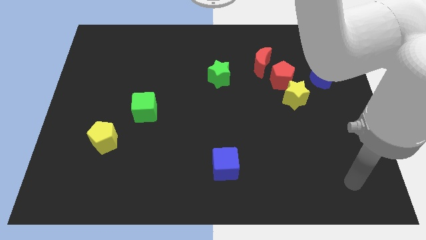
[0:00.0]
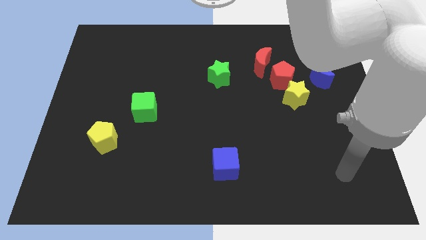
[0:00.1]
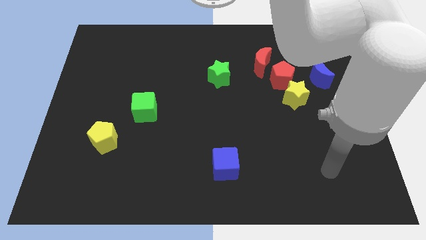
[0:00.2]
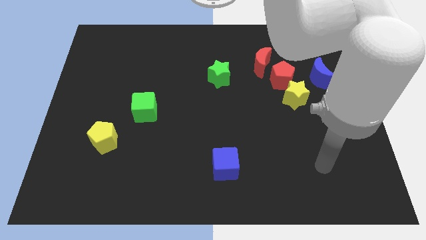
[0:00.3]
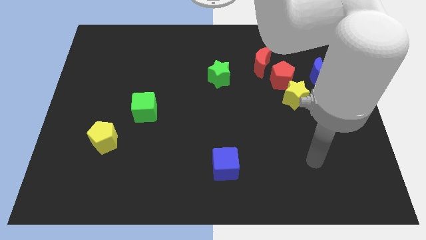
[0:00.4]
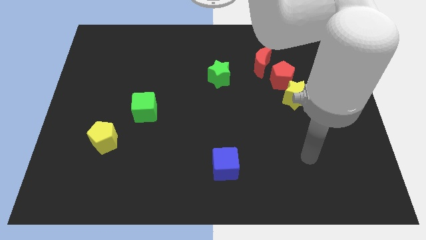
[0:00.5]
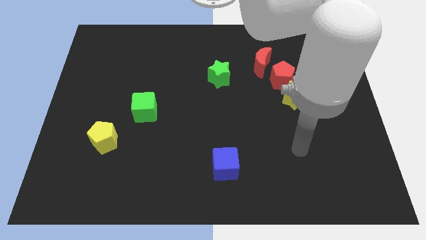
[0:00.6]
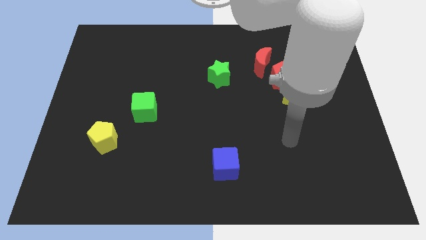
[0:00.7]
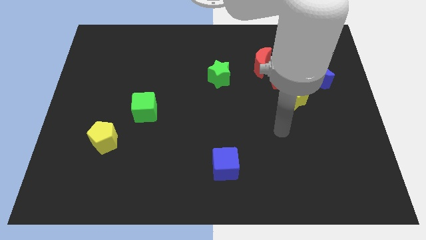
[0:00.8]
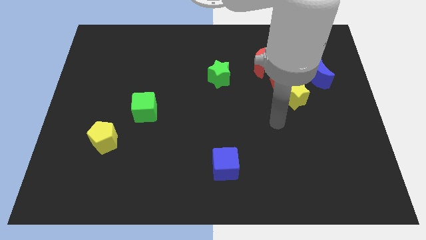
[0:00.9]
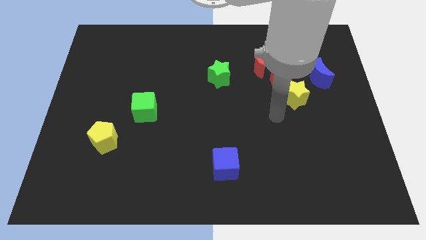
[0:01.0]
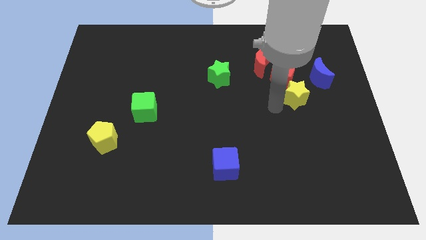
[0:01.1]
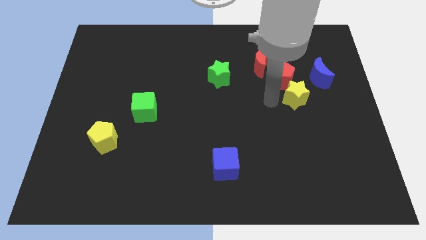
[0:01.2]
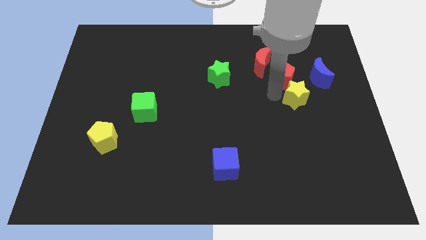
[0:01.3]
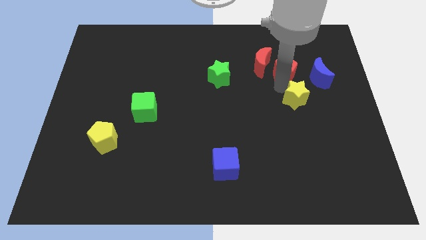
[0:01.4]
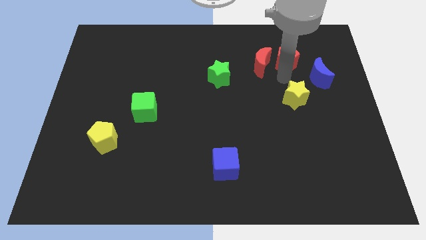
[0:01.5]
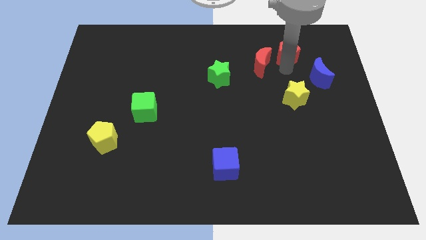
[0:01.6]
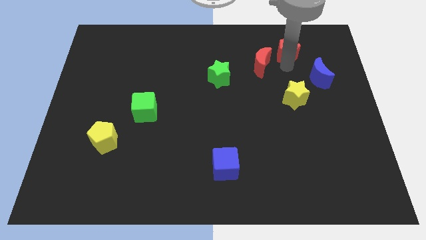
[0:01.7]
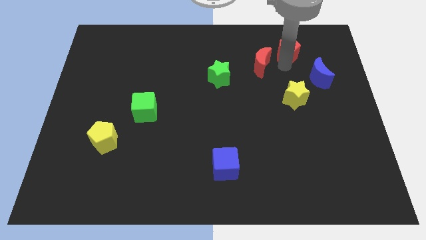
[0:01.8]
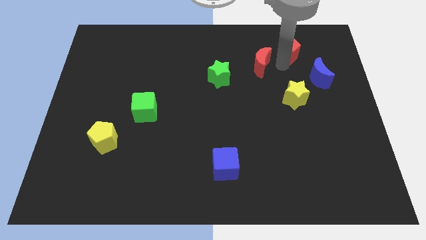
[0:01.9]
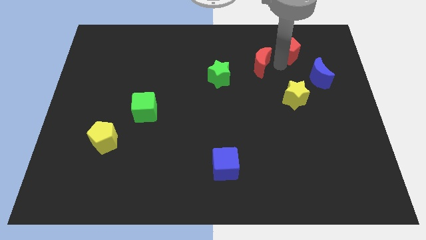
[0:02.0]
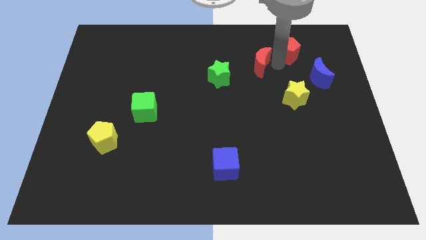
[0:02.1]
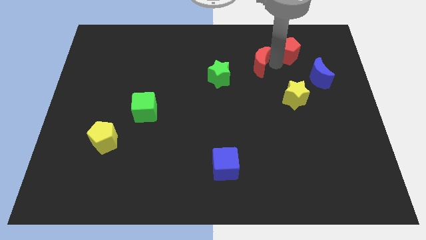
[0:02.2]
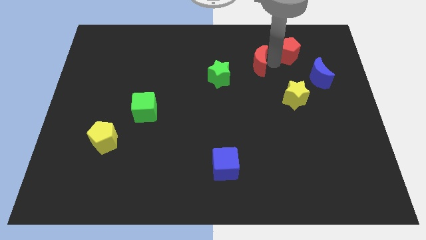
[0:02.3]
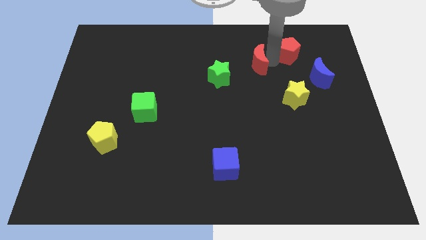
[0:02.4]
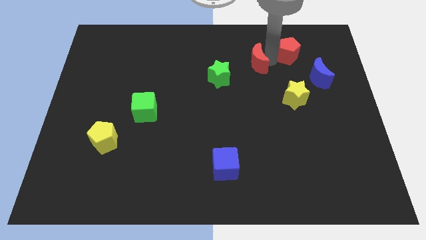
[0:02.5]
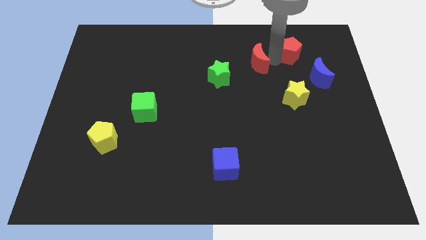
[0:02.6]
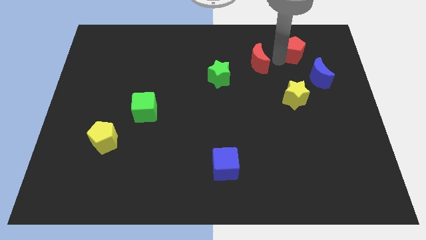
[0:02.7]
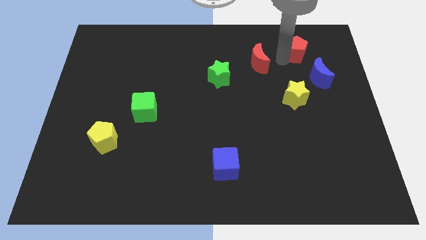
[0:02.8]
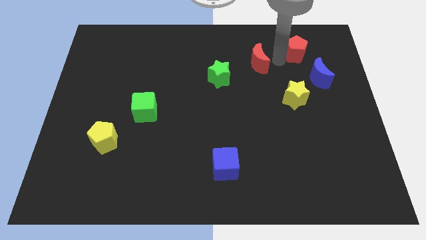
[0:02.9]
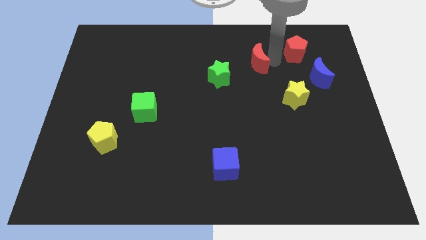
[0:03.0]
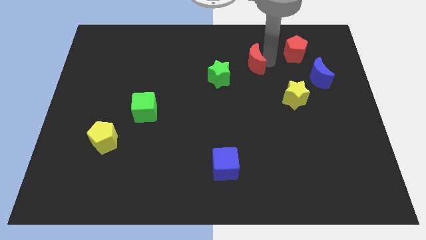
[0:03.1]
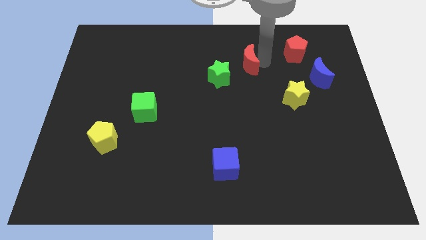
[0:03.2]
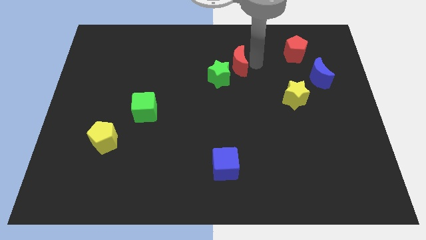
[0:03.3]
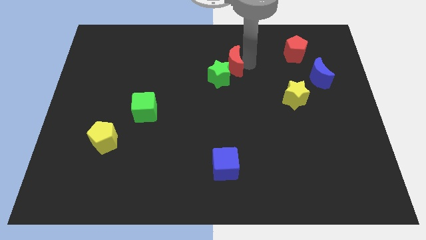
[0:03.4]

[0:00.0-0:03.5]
slightly move the red moon left

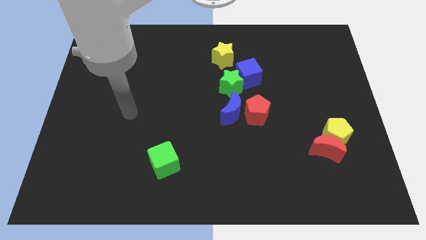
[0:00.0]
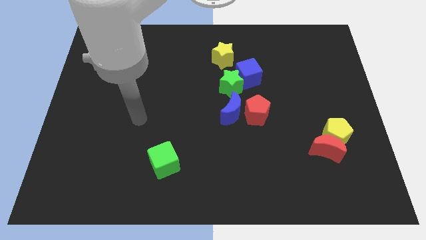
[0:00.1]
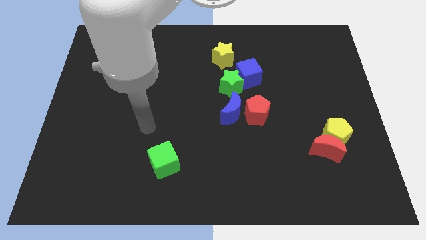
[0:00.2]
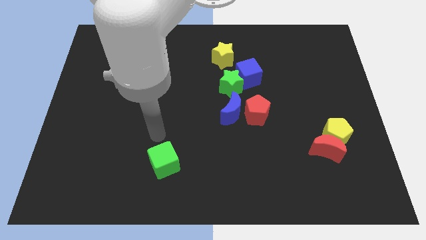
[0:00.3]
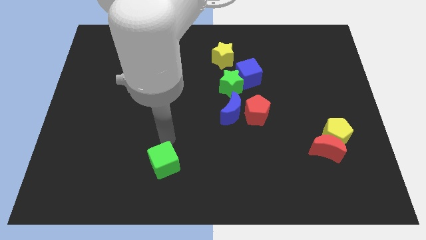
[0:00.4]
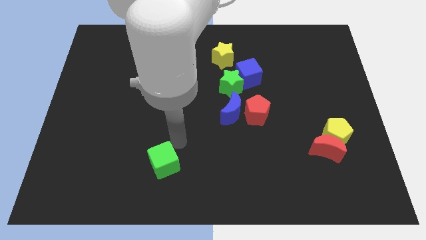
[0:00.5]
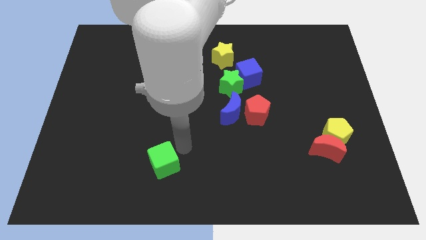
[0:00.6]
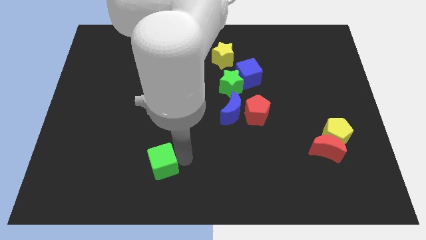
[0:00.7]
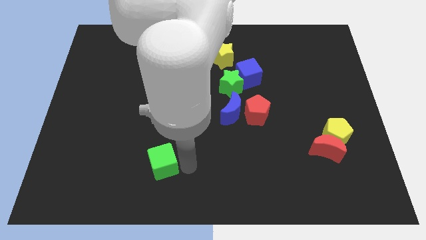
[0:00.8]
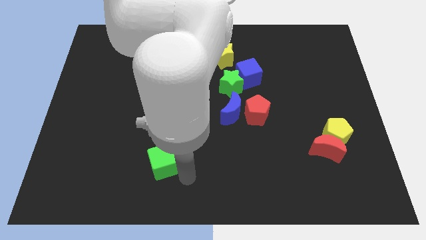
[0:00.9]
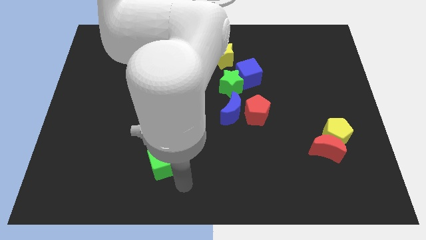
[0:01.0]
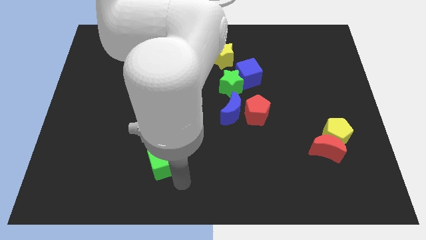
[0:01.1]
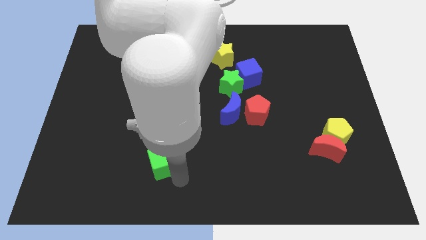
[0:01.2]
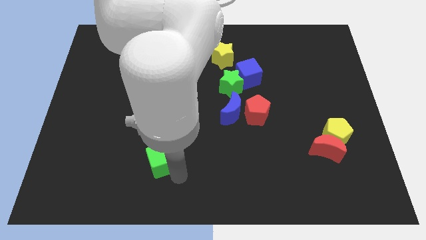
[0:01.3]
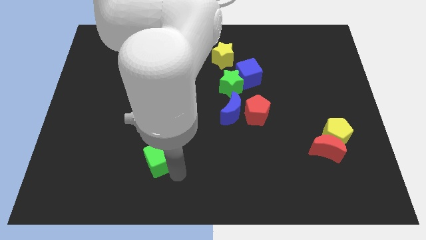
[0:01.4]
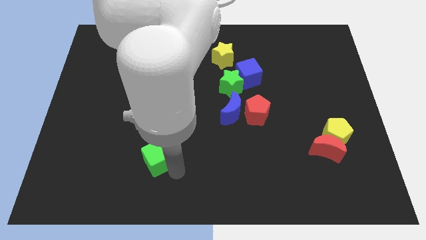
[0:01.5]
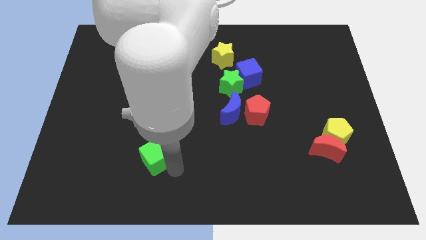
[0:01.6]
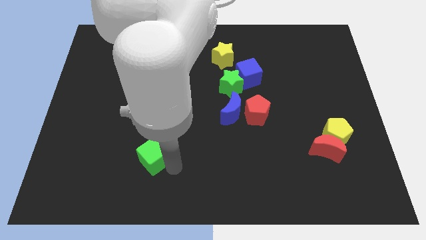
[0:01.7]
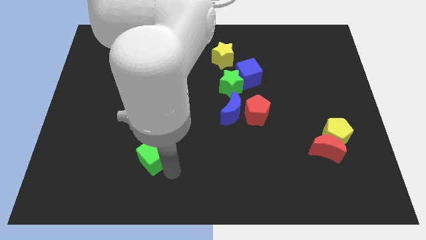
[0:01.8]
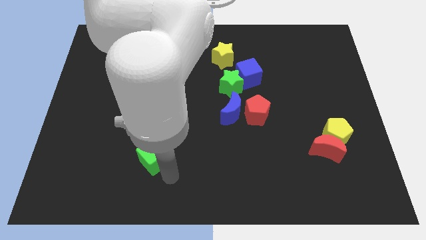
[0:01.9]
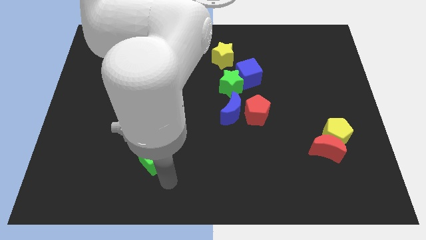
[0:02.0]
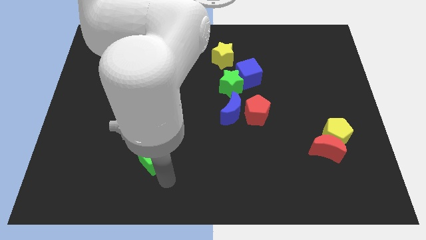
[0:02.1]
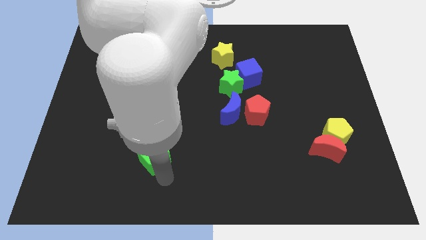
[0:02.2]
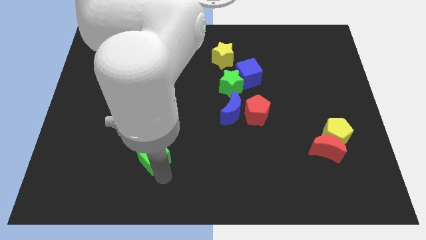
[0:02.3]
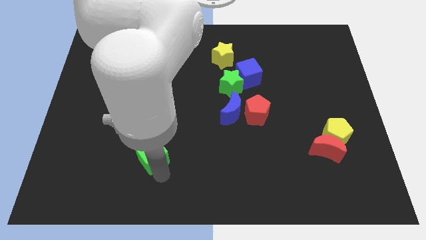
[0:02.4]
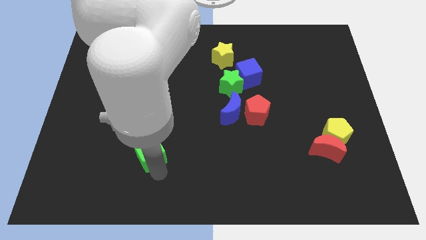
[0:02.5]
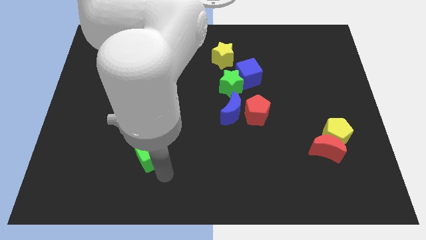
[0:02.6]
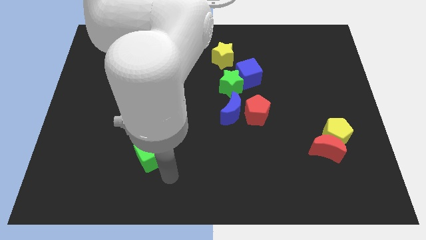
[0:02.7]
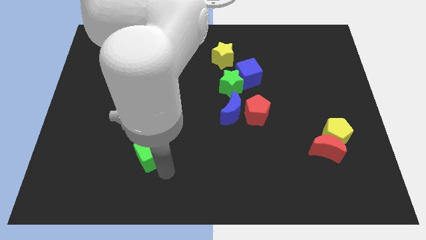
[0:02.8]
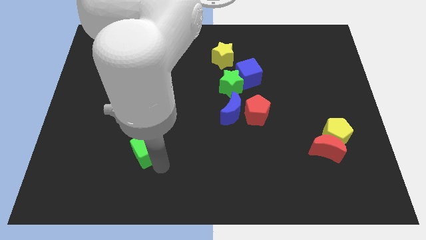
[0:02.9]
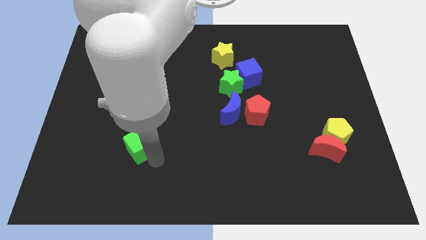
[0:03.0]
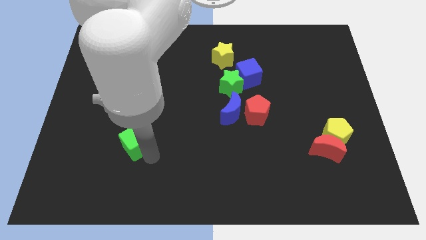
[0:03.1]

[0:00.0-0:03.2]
slightly move the green cube upwards and then left

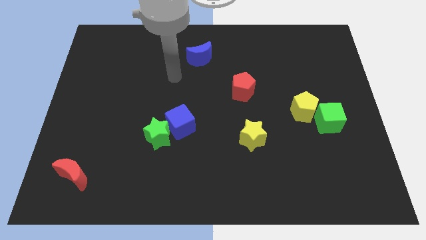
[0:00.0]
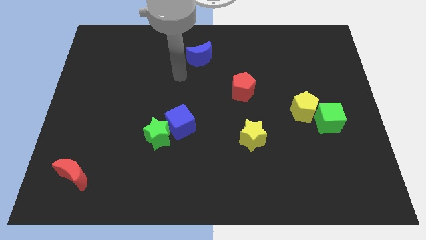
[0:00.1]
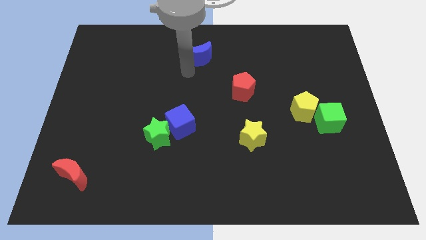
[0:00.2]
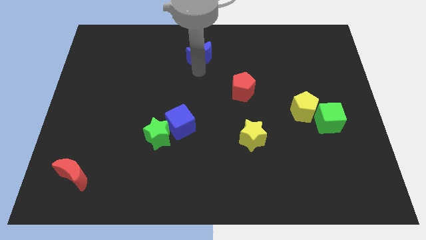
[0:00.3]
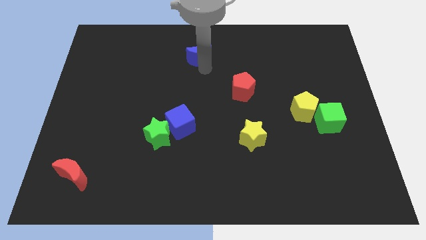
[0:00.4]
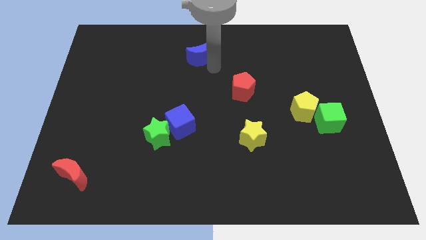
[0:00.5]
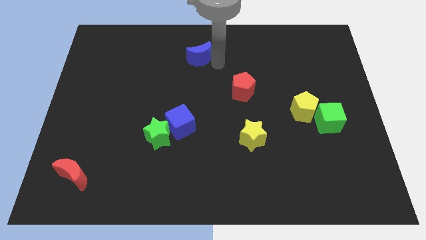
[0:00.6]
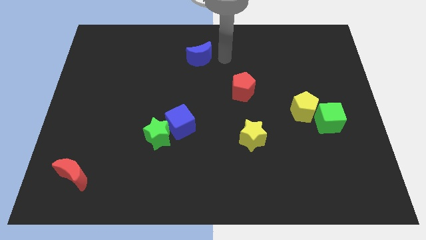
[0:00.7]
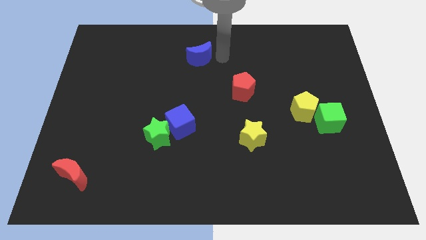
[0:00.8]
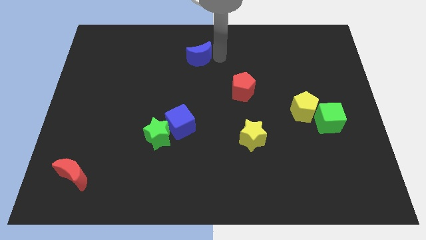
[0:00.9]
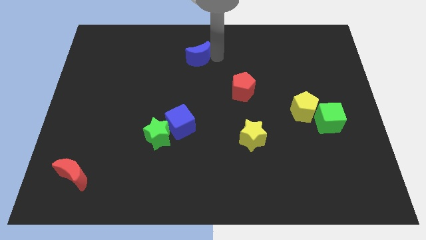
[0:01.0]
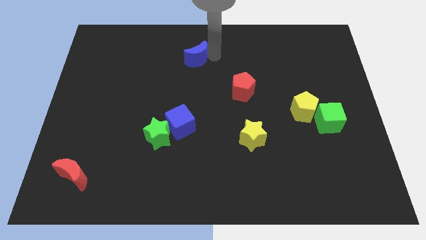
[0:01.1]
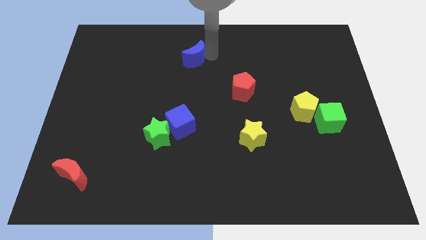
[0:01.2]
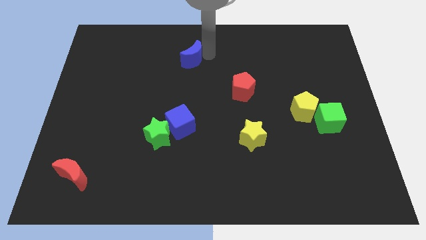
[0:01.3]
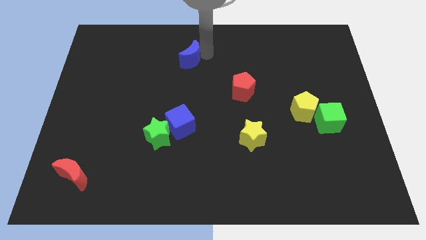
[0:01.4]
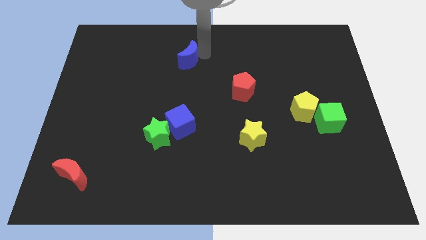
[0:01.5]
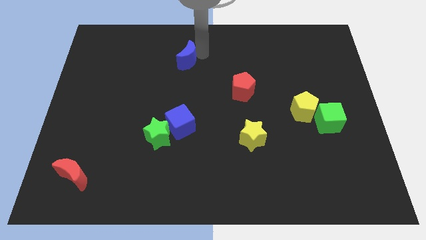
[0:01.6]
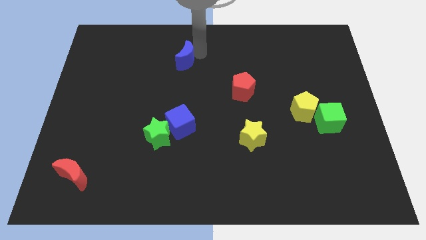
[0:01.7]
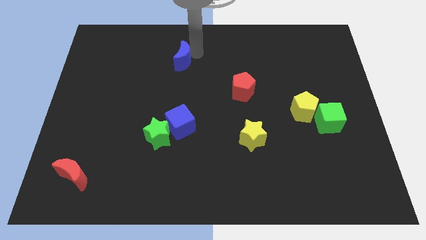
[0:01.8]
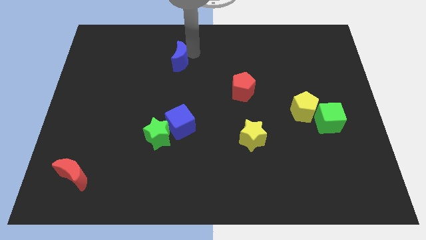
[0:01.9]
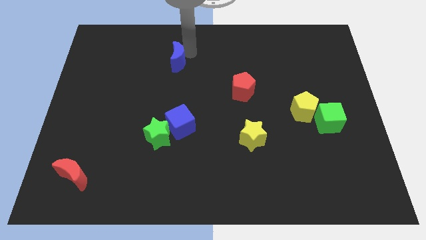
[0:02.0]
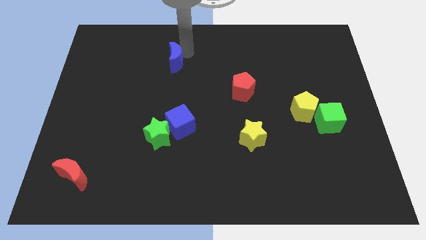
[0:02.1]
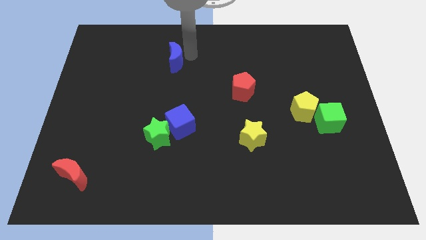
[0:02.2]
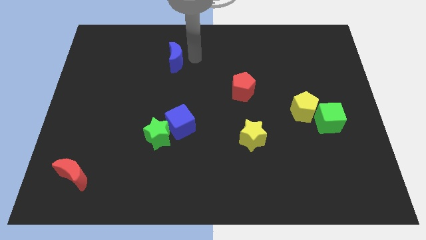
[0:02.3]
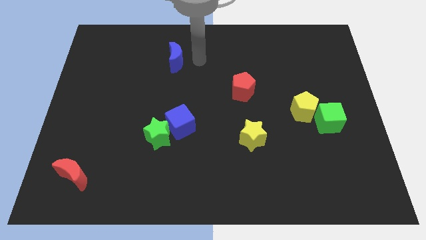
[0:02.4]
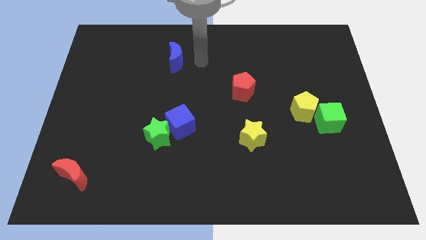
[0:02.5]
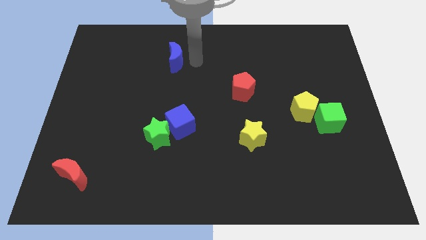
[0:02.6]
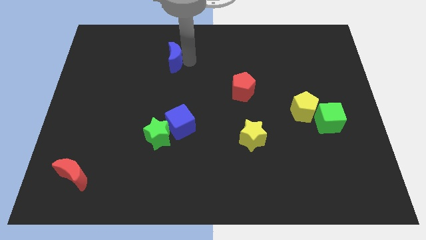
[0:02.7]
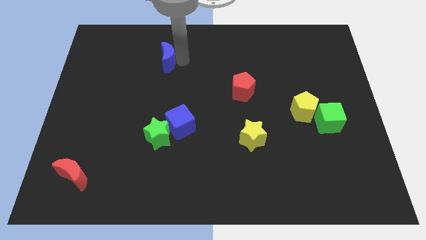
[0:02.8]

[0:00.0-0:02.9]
move the blue moon a little to the left
